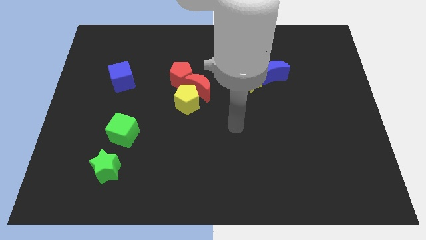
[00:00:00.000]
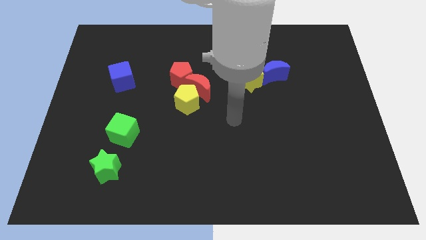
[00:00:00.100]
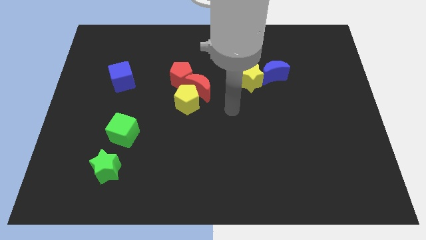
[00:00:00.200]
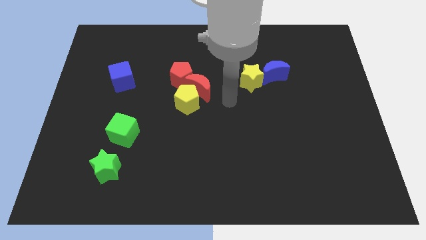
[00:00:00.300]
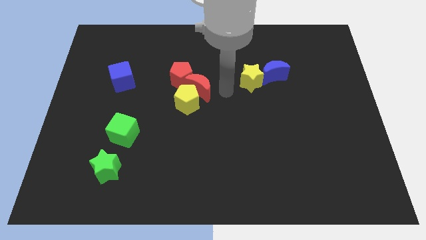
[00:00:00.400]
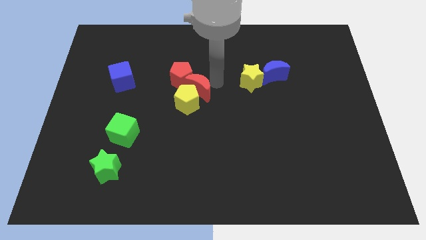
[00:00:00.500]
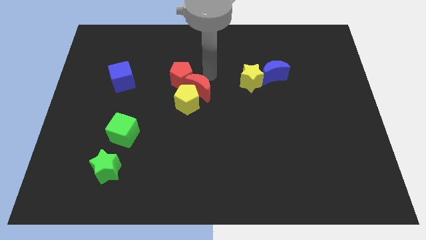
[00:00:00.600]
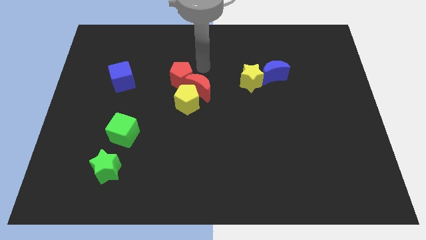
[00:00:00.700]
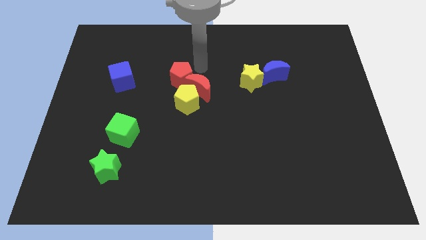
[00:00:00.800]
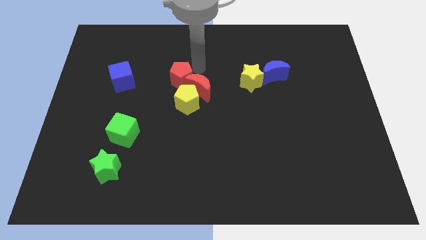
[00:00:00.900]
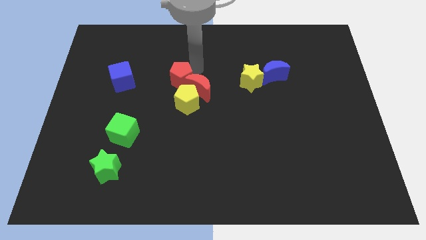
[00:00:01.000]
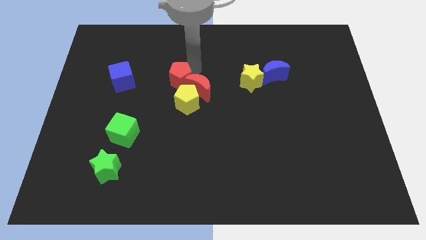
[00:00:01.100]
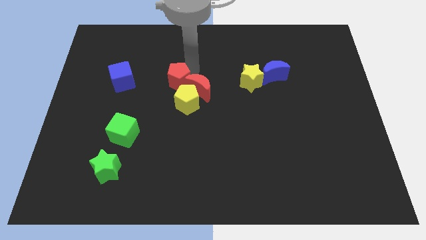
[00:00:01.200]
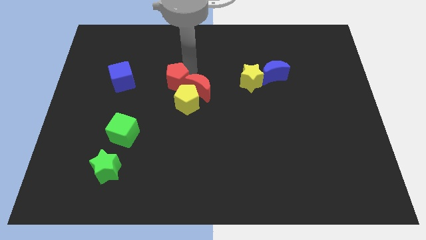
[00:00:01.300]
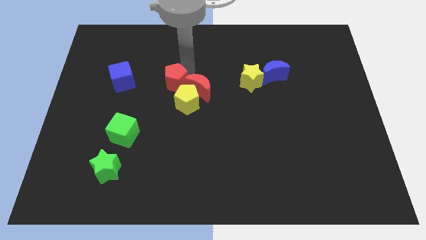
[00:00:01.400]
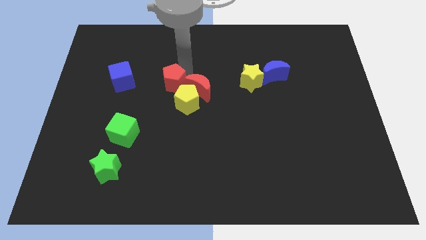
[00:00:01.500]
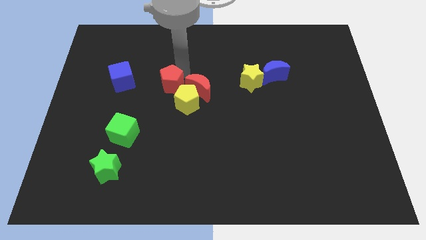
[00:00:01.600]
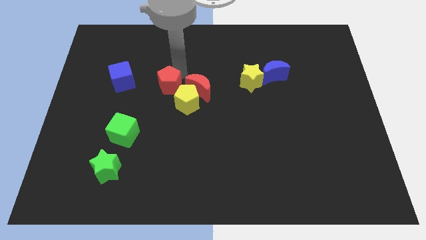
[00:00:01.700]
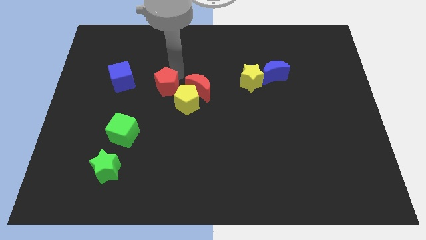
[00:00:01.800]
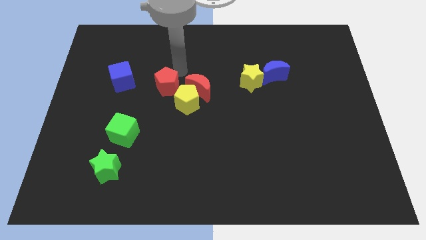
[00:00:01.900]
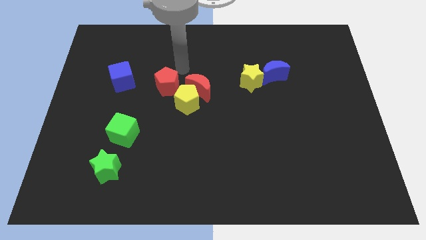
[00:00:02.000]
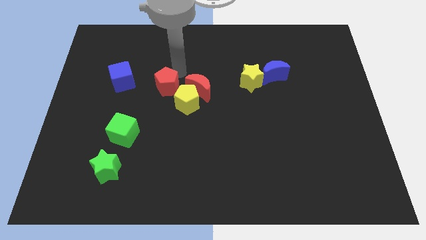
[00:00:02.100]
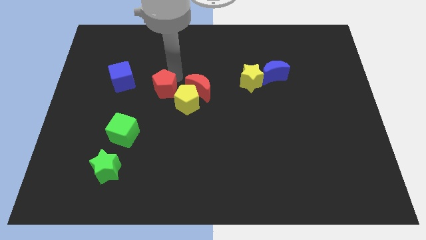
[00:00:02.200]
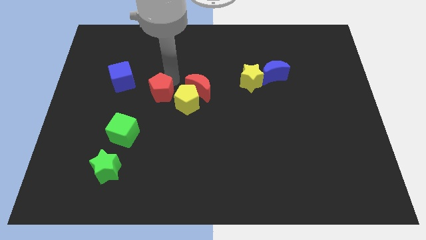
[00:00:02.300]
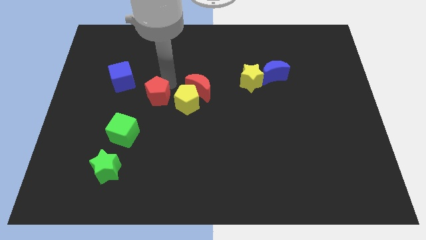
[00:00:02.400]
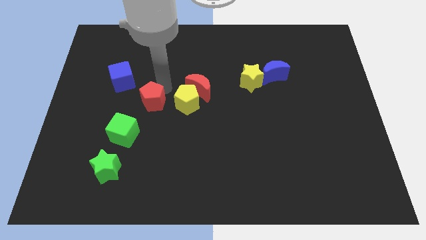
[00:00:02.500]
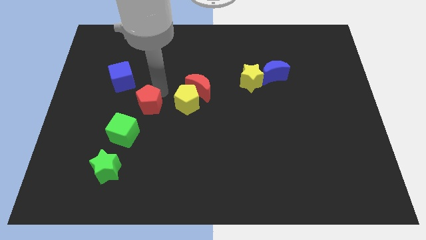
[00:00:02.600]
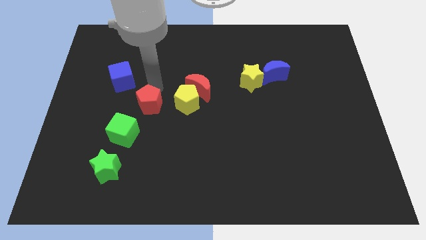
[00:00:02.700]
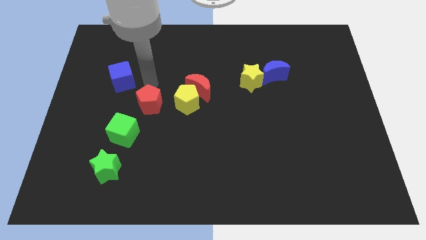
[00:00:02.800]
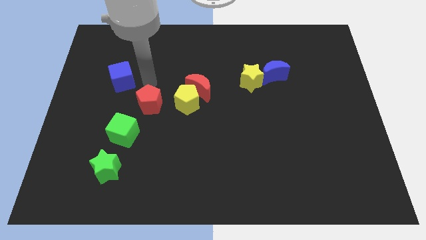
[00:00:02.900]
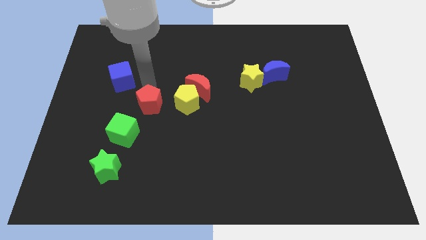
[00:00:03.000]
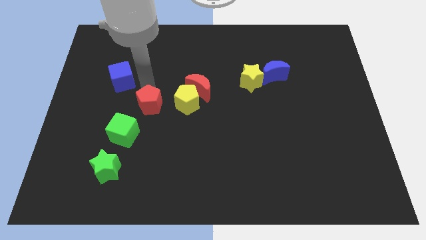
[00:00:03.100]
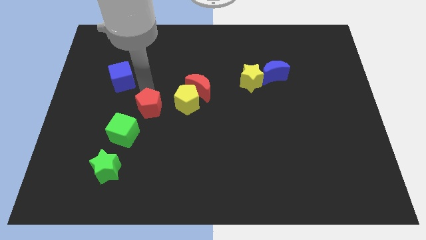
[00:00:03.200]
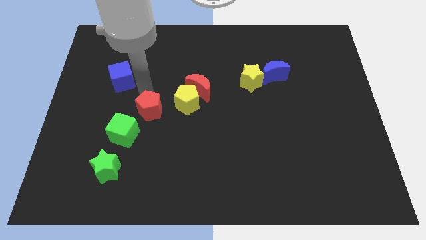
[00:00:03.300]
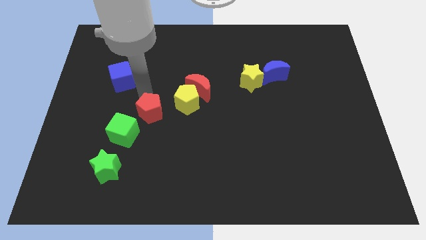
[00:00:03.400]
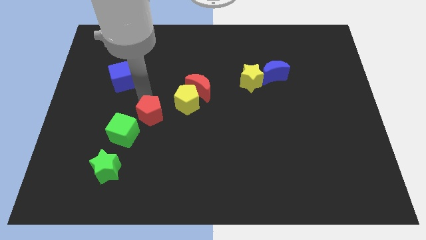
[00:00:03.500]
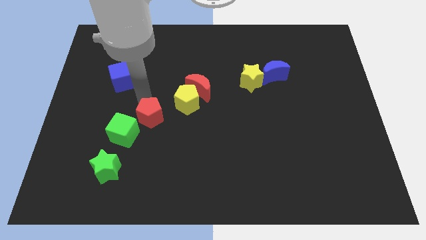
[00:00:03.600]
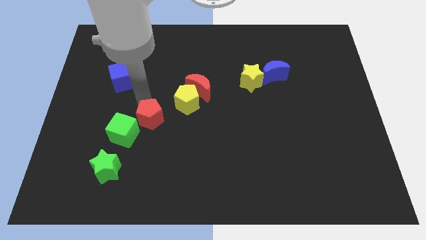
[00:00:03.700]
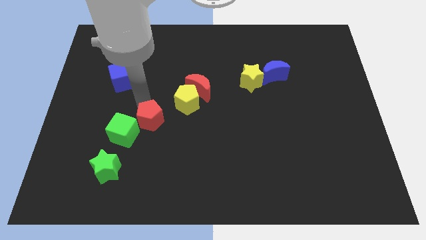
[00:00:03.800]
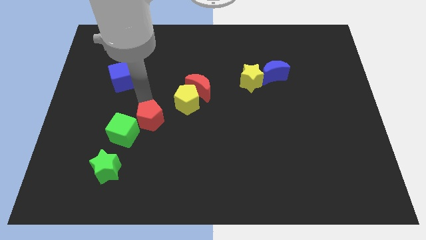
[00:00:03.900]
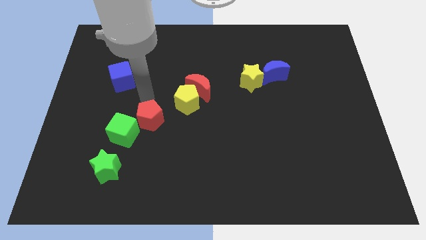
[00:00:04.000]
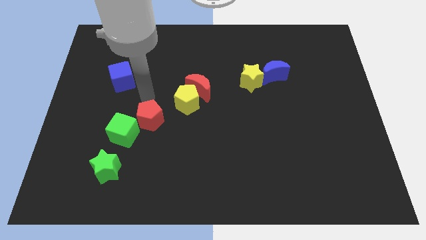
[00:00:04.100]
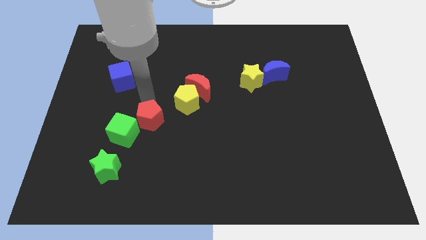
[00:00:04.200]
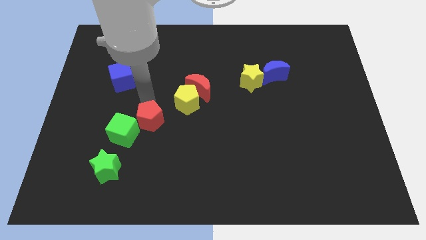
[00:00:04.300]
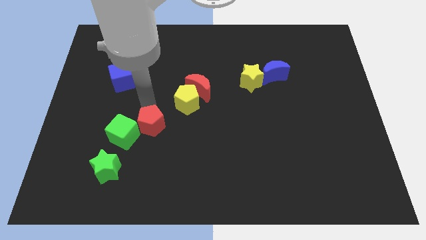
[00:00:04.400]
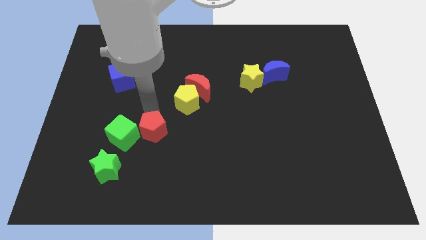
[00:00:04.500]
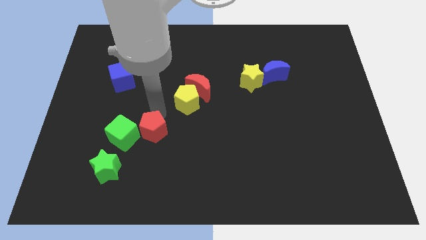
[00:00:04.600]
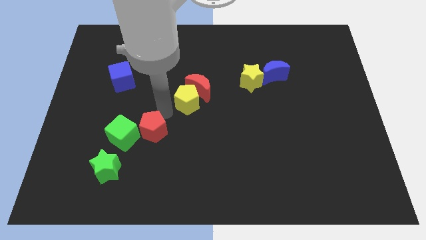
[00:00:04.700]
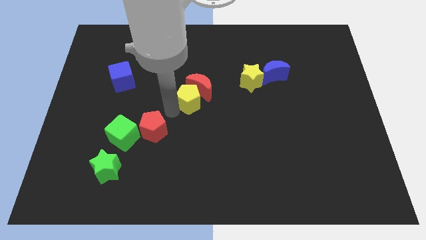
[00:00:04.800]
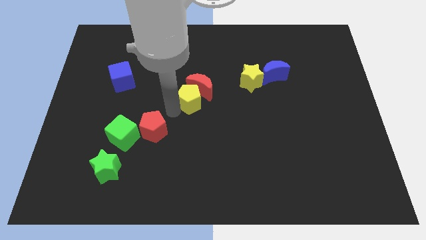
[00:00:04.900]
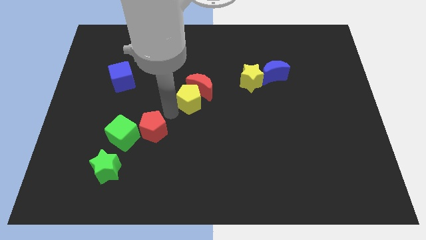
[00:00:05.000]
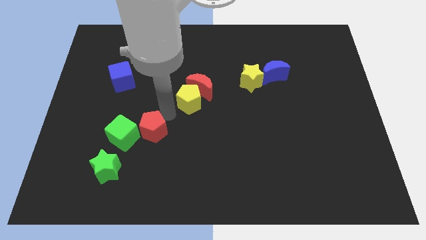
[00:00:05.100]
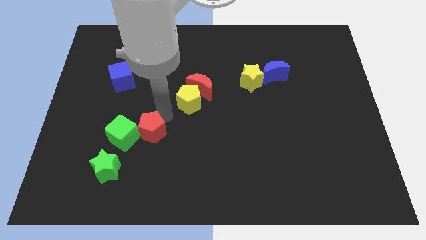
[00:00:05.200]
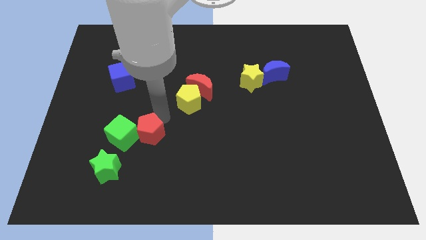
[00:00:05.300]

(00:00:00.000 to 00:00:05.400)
put the red pentagon to the top right of the green star
